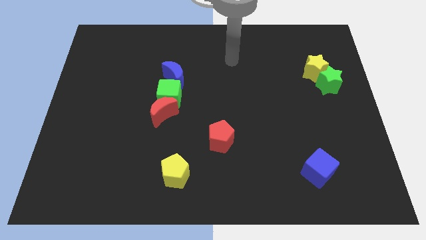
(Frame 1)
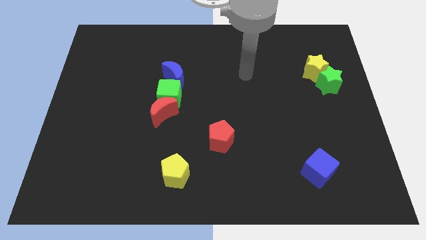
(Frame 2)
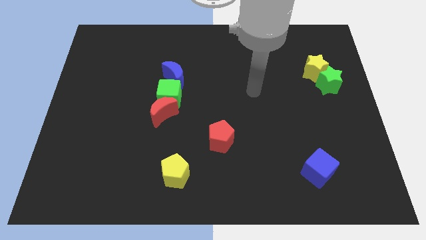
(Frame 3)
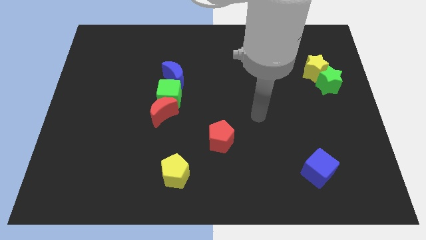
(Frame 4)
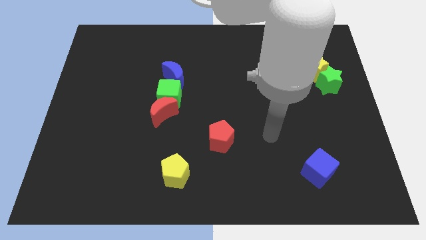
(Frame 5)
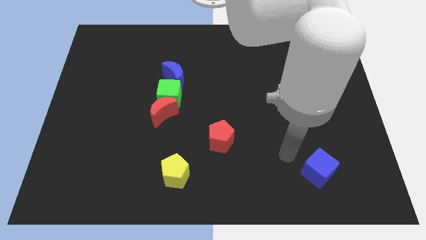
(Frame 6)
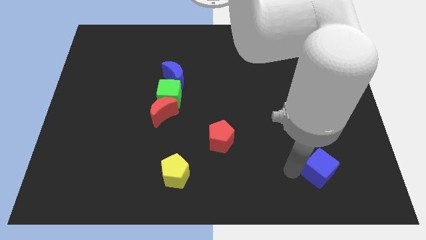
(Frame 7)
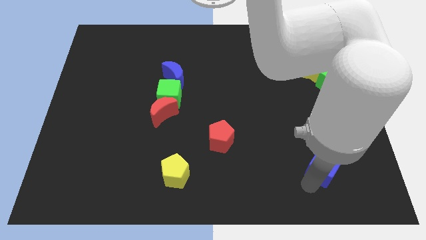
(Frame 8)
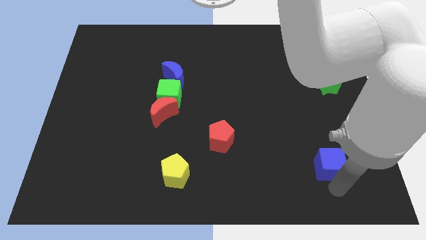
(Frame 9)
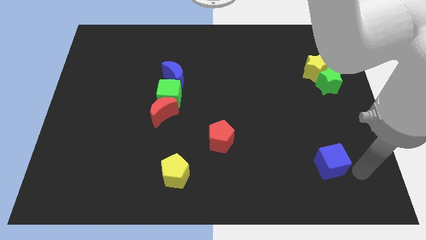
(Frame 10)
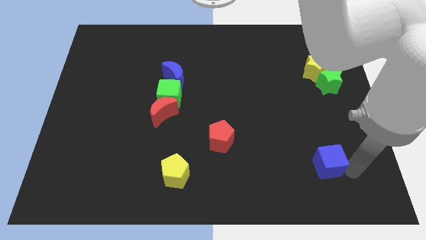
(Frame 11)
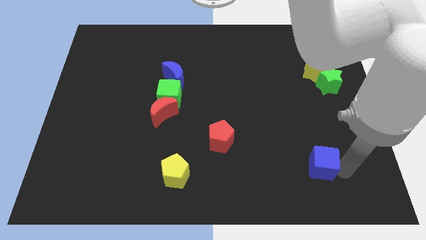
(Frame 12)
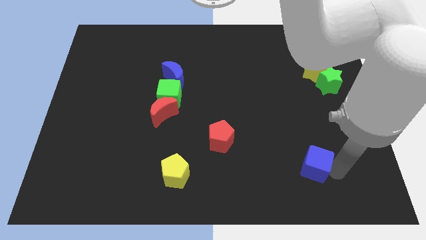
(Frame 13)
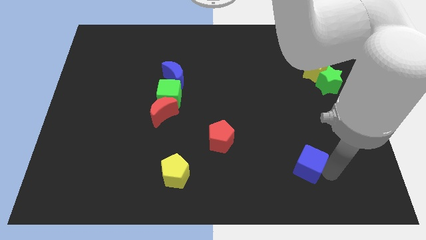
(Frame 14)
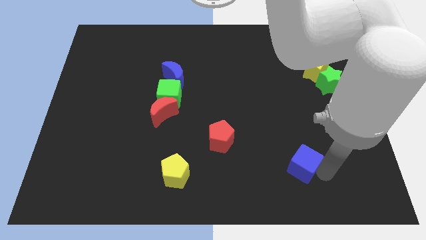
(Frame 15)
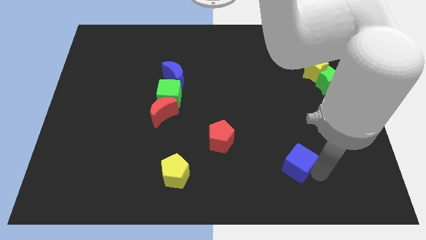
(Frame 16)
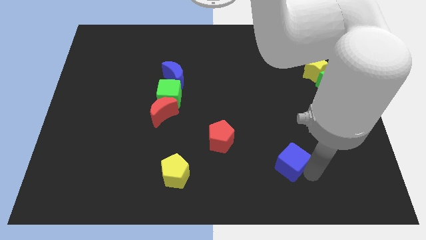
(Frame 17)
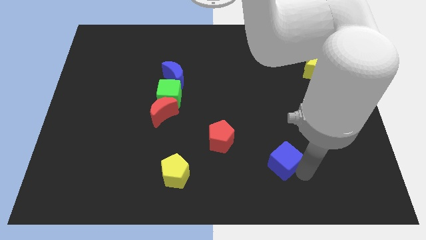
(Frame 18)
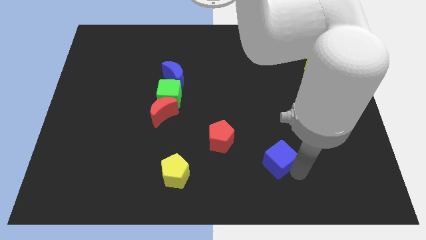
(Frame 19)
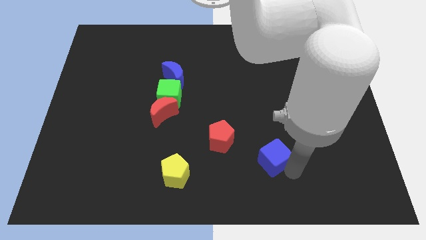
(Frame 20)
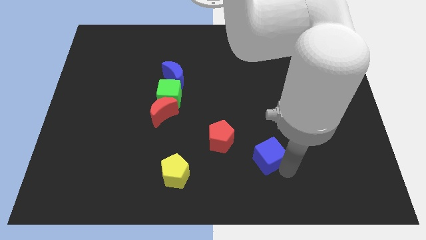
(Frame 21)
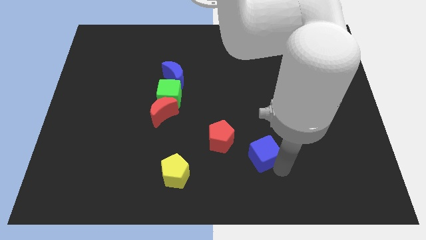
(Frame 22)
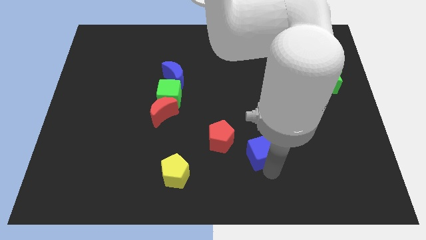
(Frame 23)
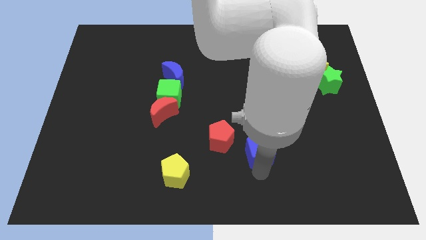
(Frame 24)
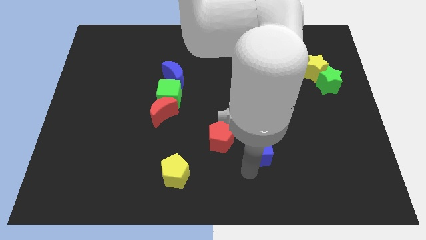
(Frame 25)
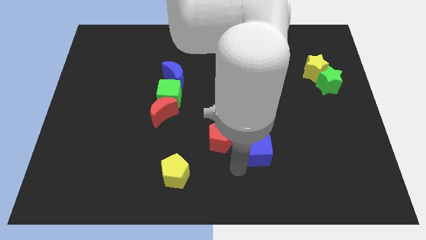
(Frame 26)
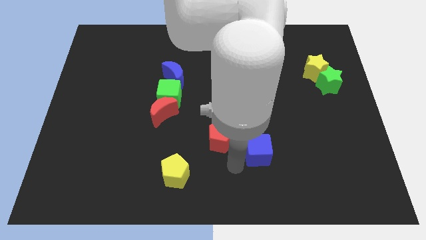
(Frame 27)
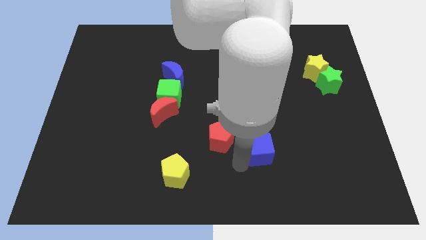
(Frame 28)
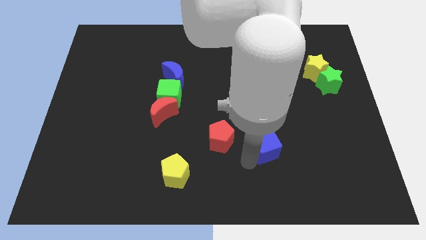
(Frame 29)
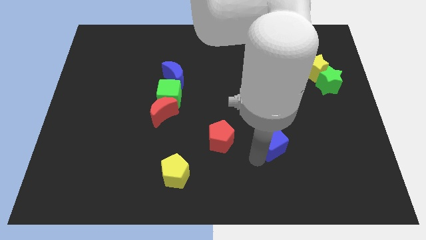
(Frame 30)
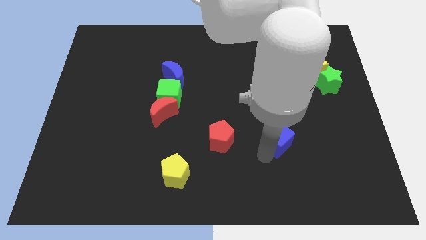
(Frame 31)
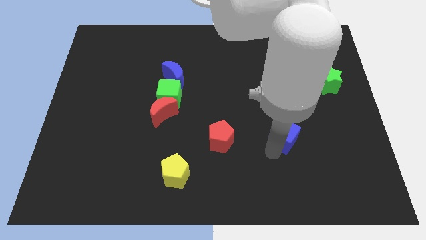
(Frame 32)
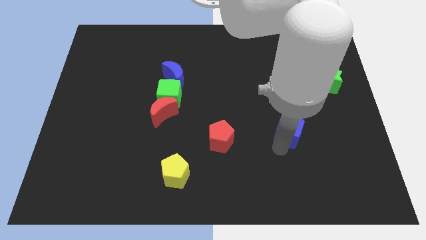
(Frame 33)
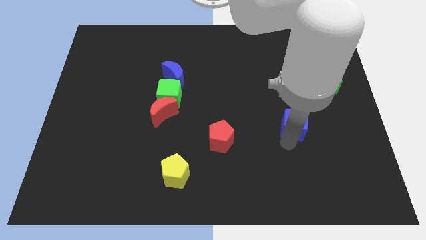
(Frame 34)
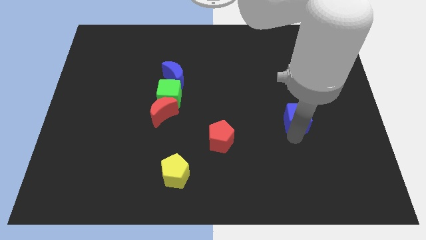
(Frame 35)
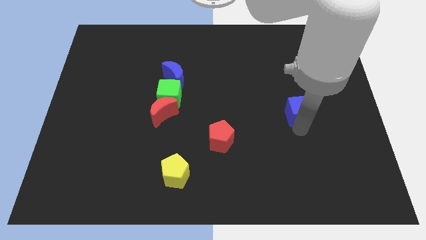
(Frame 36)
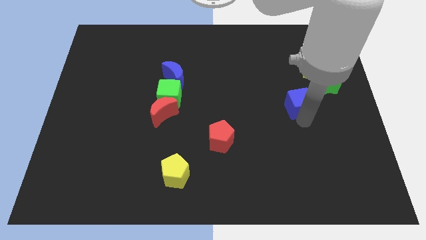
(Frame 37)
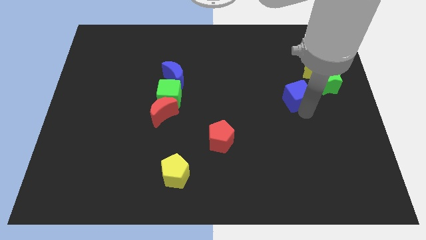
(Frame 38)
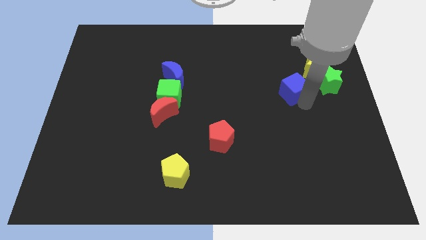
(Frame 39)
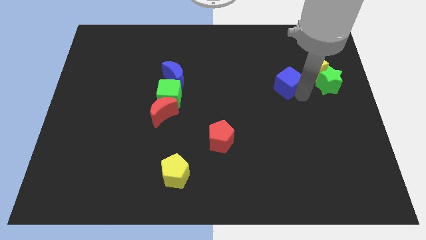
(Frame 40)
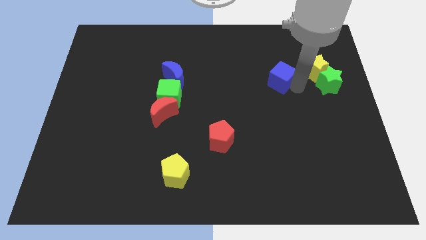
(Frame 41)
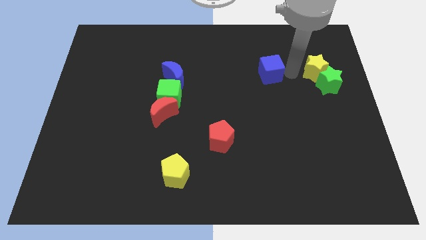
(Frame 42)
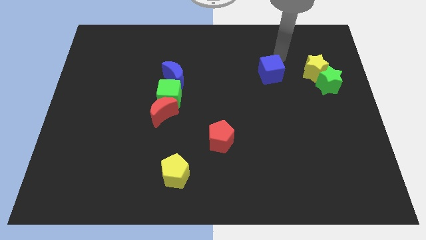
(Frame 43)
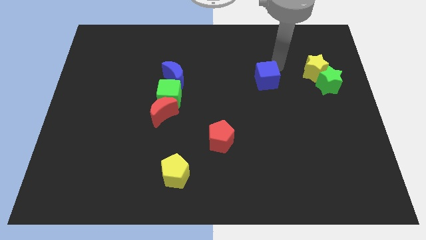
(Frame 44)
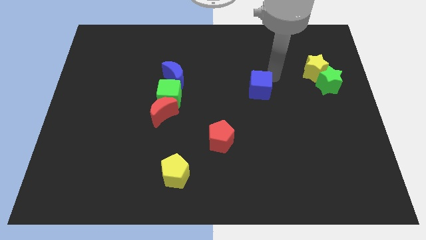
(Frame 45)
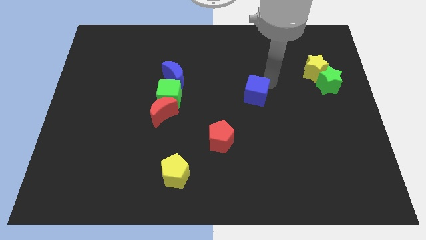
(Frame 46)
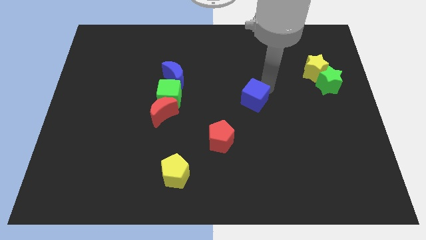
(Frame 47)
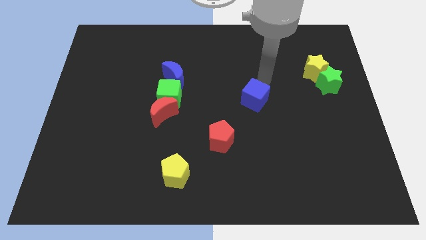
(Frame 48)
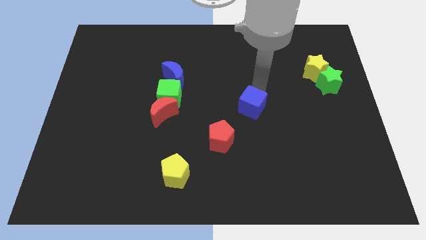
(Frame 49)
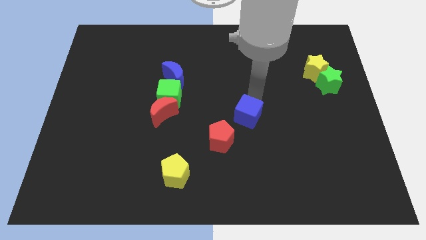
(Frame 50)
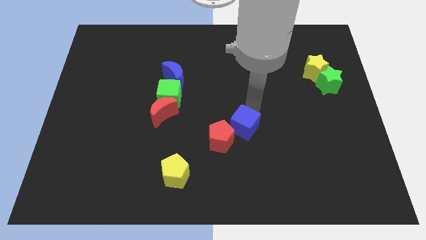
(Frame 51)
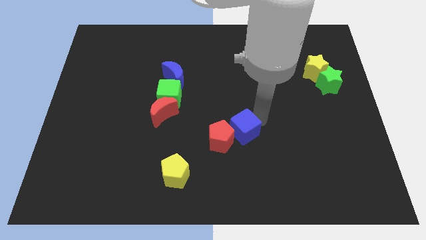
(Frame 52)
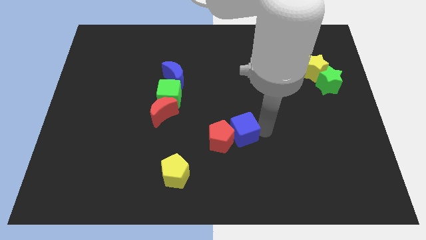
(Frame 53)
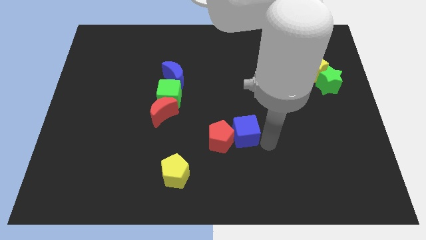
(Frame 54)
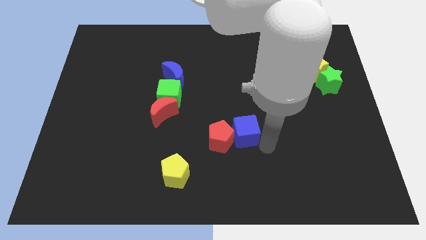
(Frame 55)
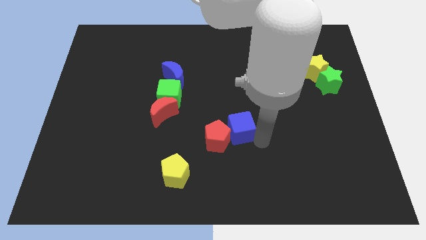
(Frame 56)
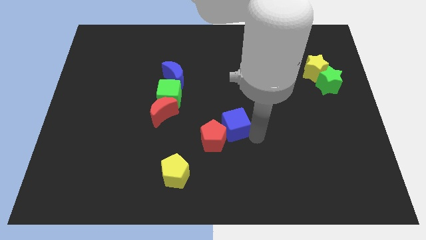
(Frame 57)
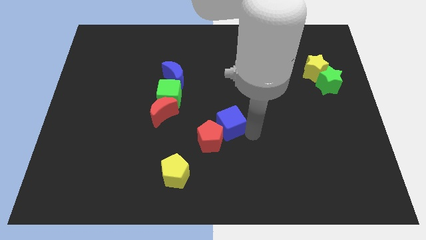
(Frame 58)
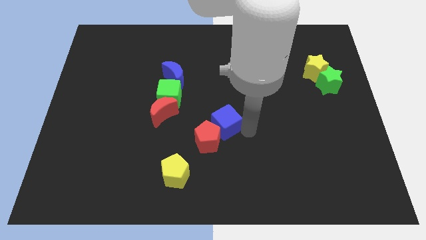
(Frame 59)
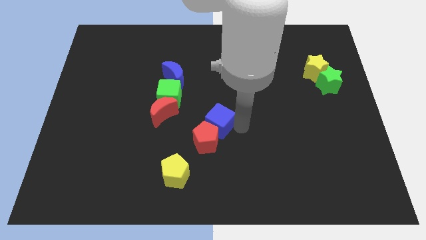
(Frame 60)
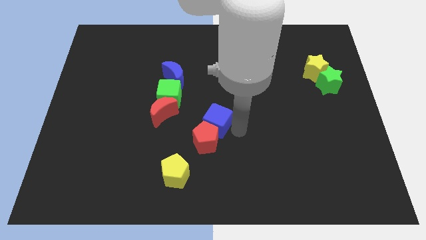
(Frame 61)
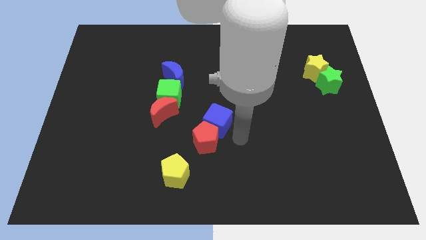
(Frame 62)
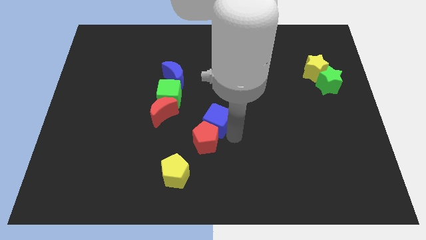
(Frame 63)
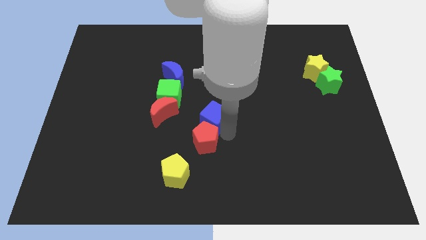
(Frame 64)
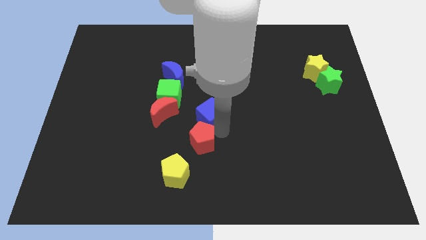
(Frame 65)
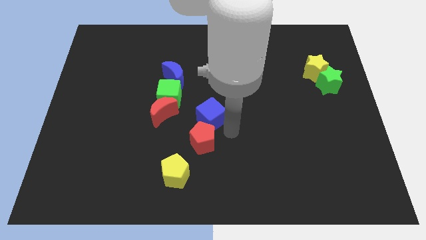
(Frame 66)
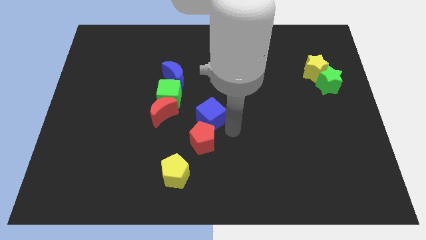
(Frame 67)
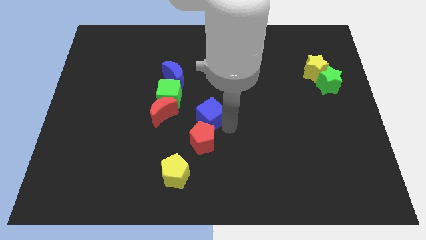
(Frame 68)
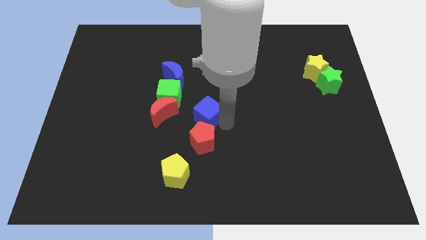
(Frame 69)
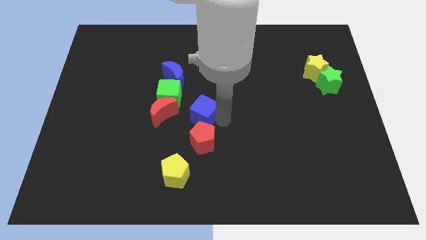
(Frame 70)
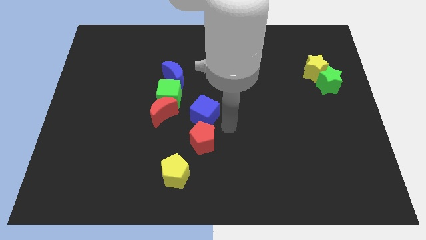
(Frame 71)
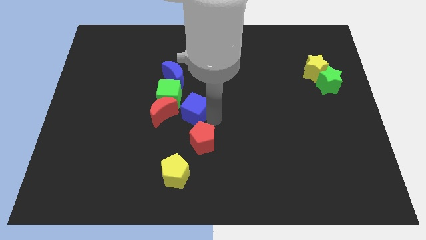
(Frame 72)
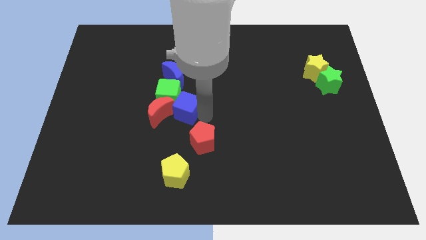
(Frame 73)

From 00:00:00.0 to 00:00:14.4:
push the blue cube next to the green cube
